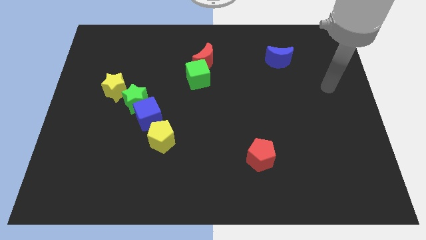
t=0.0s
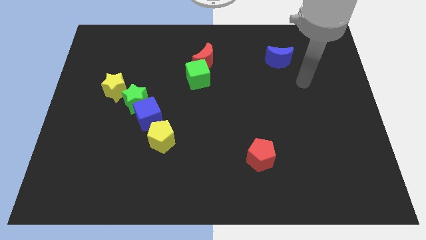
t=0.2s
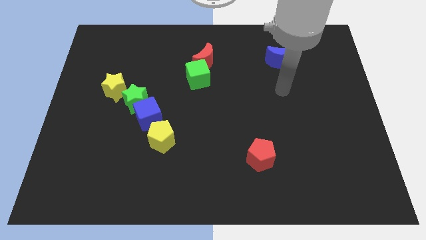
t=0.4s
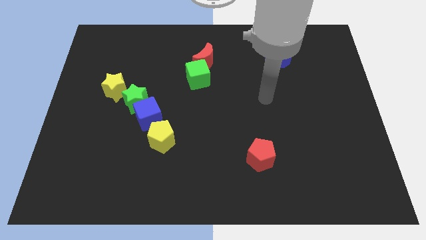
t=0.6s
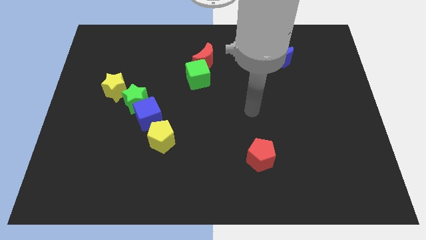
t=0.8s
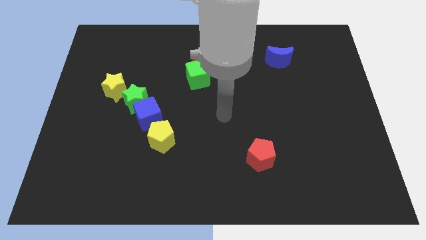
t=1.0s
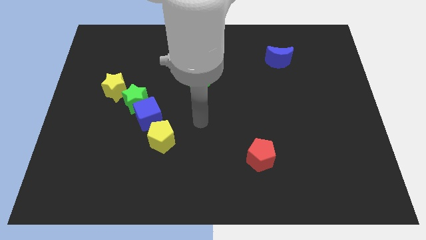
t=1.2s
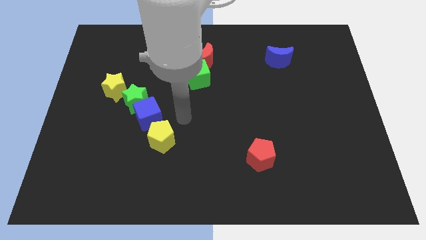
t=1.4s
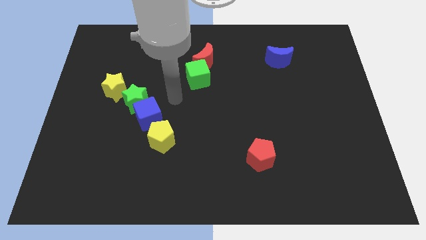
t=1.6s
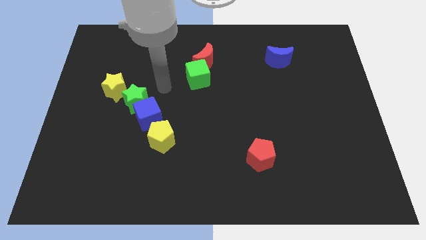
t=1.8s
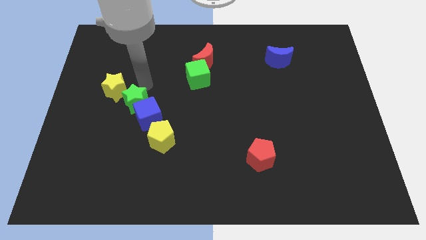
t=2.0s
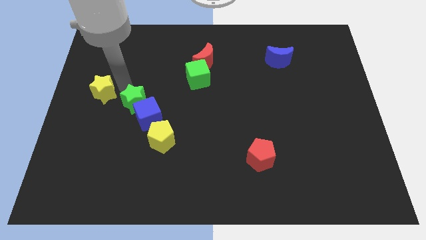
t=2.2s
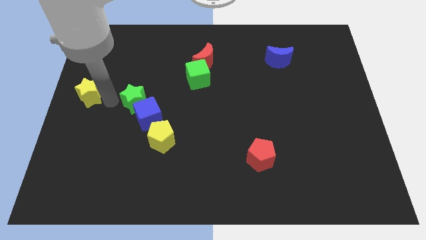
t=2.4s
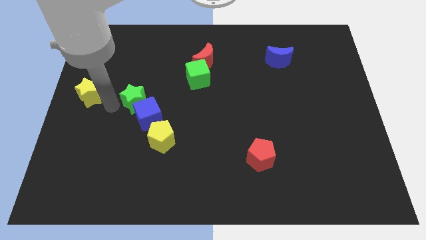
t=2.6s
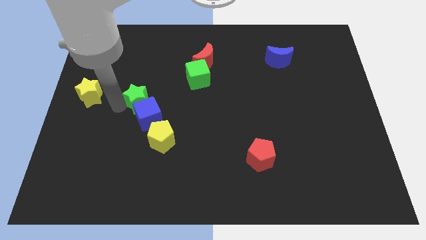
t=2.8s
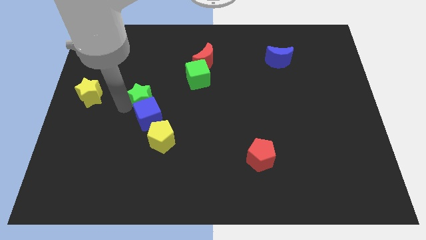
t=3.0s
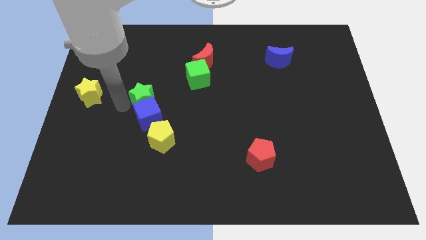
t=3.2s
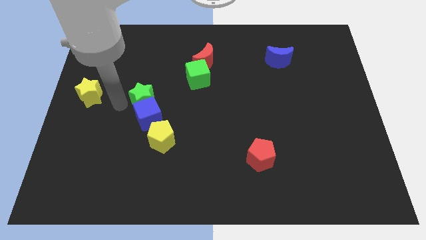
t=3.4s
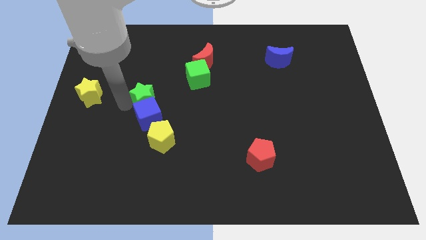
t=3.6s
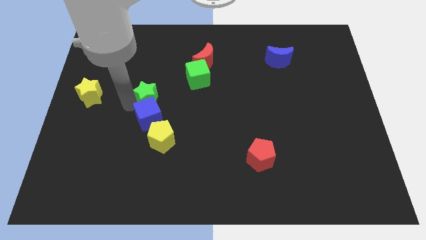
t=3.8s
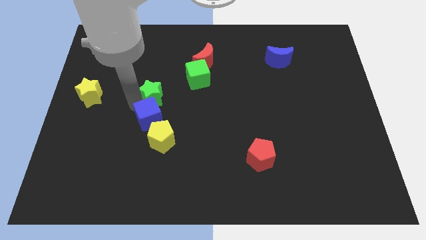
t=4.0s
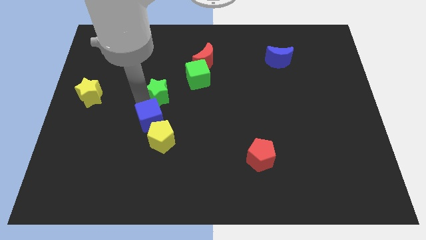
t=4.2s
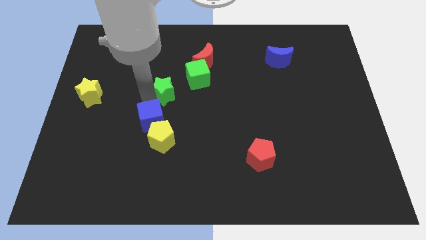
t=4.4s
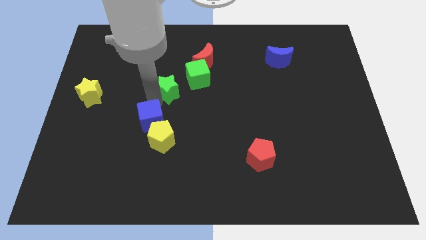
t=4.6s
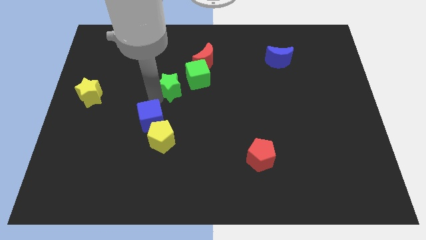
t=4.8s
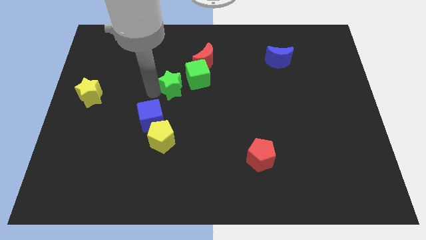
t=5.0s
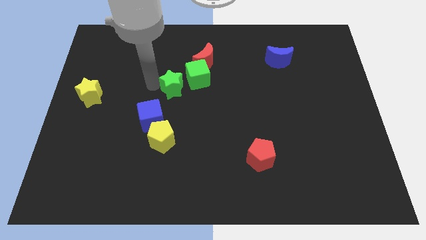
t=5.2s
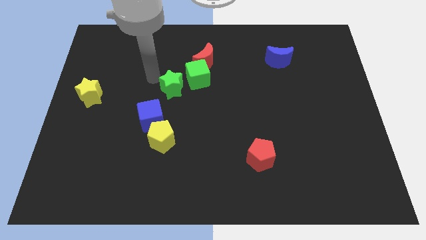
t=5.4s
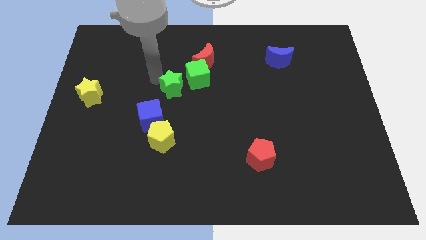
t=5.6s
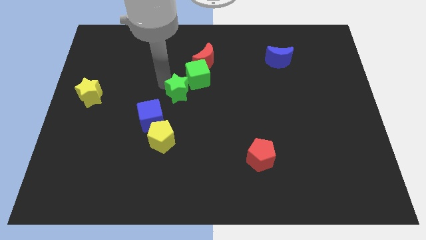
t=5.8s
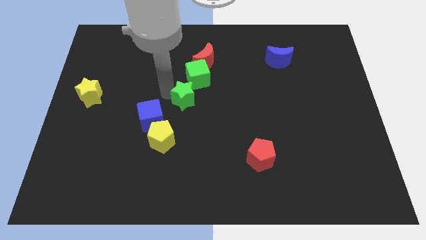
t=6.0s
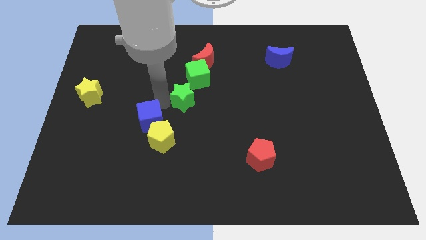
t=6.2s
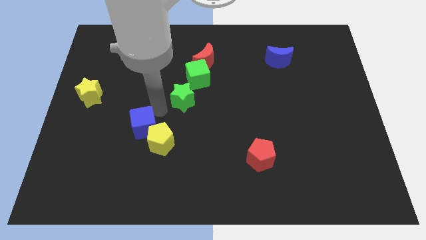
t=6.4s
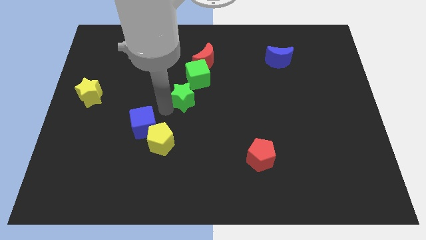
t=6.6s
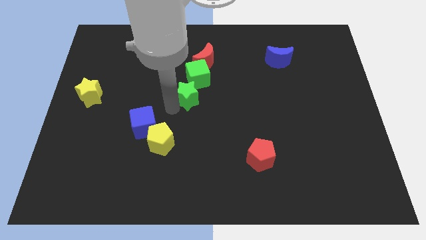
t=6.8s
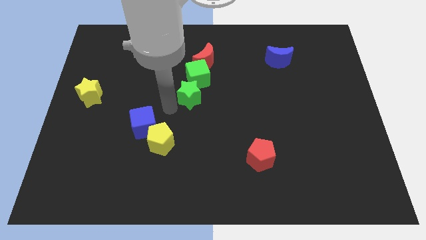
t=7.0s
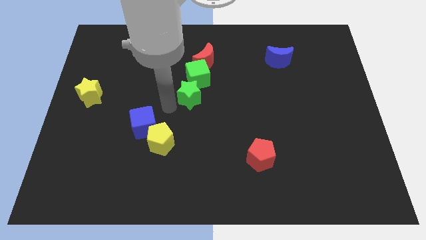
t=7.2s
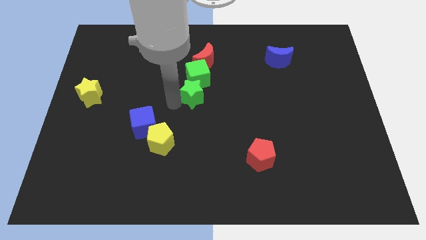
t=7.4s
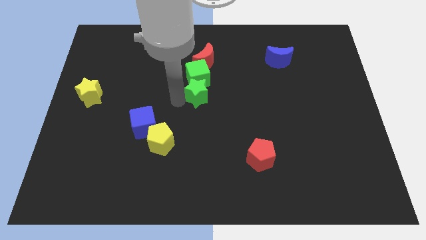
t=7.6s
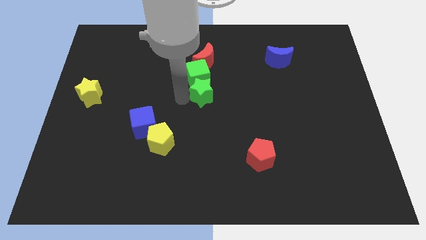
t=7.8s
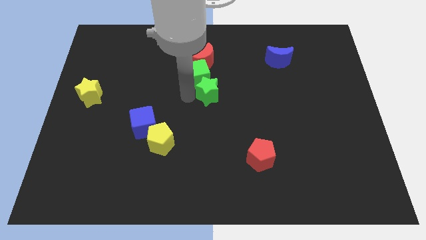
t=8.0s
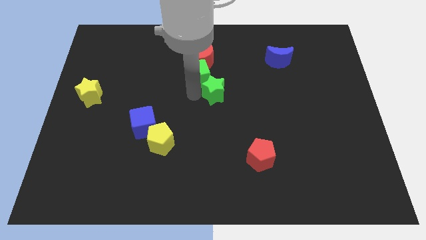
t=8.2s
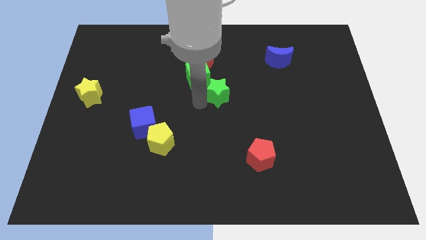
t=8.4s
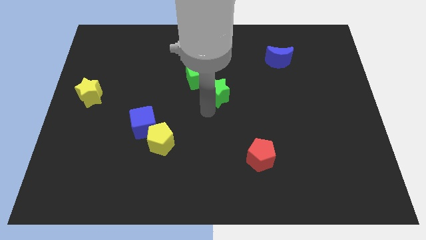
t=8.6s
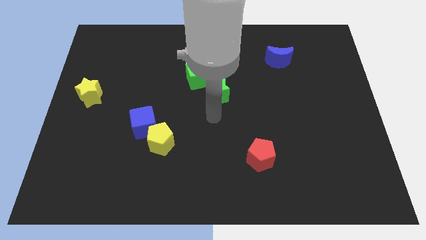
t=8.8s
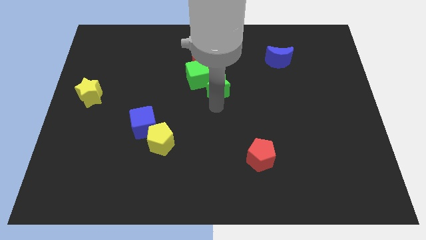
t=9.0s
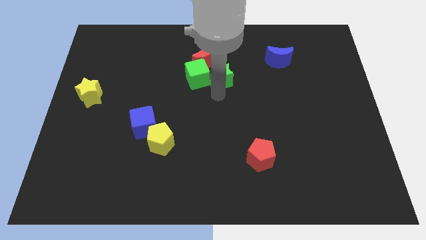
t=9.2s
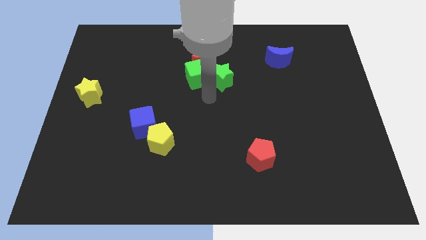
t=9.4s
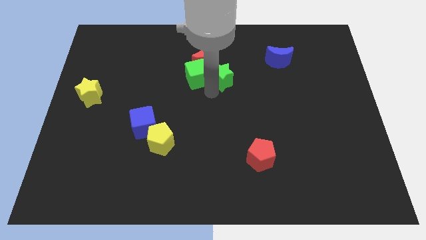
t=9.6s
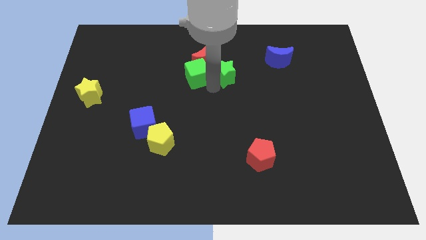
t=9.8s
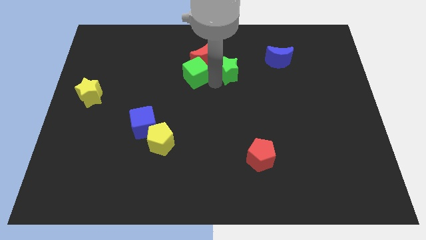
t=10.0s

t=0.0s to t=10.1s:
slide the green star to the left of the blue moon

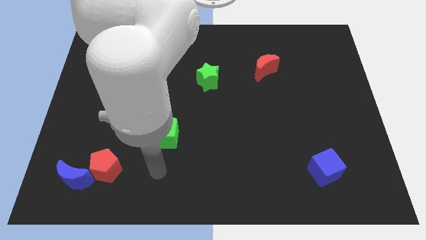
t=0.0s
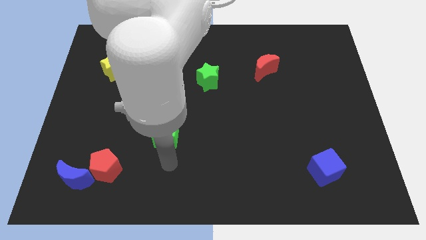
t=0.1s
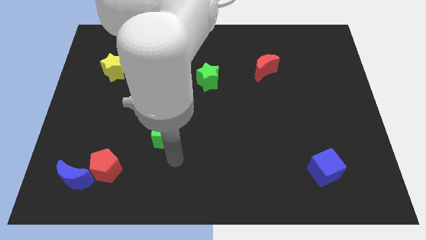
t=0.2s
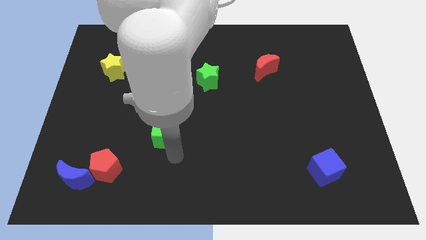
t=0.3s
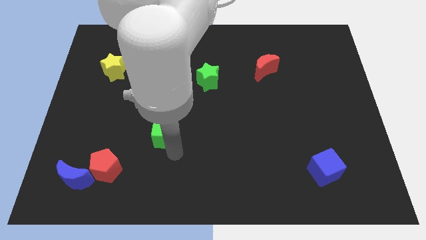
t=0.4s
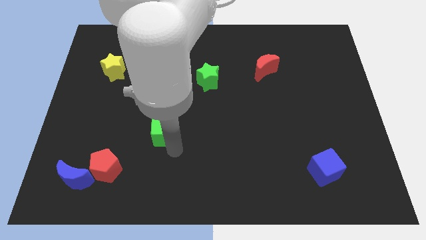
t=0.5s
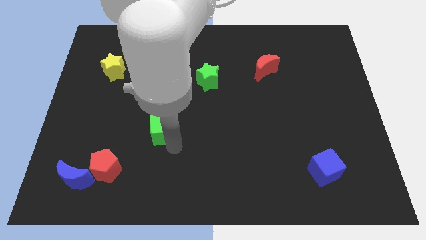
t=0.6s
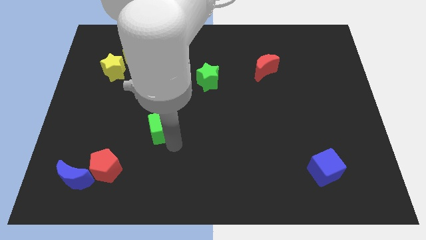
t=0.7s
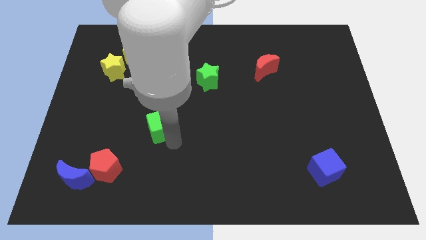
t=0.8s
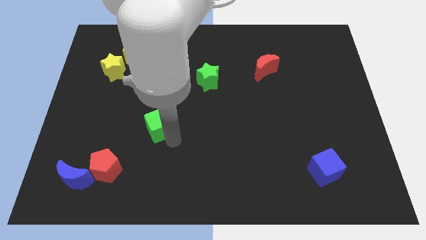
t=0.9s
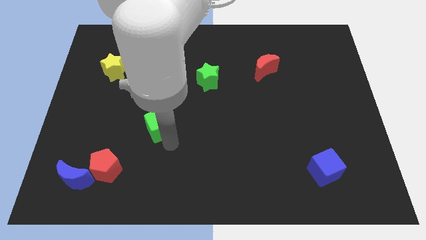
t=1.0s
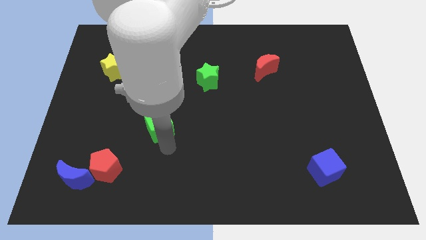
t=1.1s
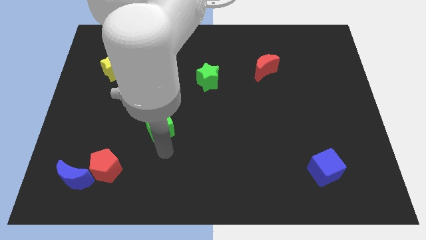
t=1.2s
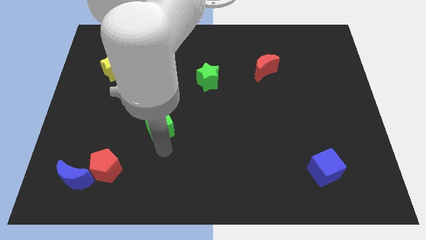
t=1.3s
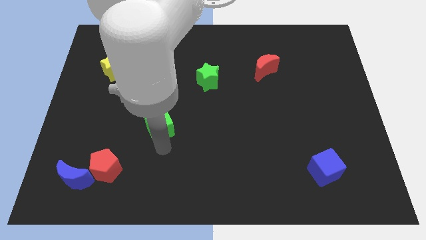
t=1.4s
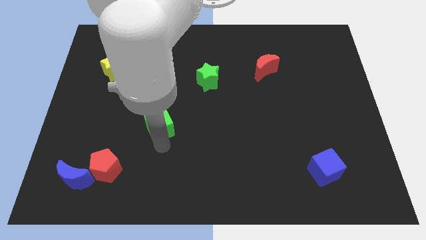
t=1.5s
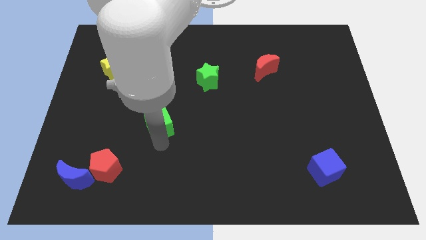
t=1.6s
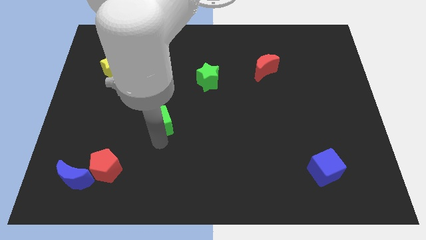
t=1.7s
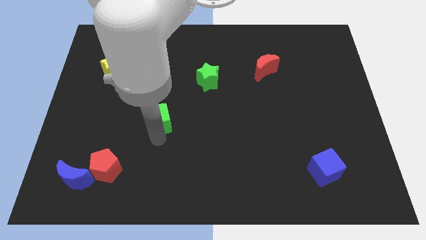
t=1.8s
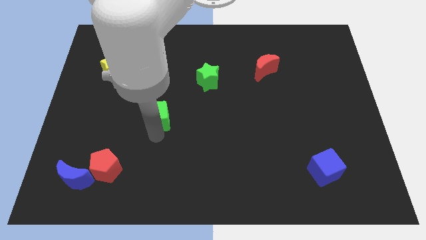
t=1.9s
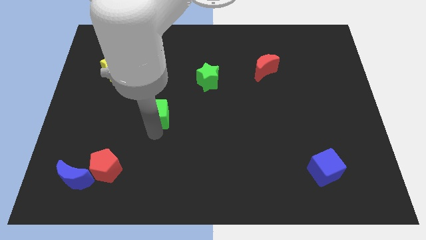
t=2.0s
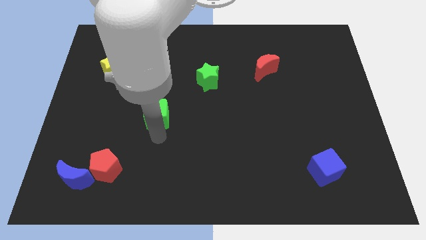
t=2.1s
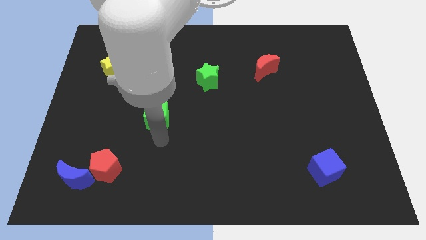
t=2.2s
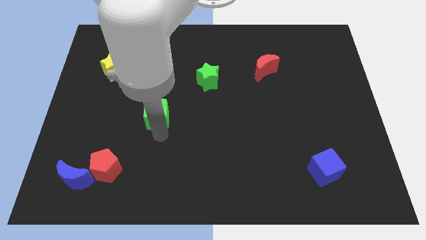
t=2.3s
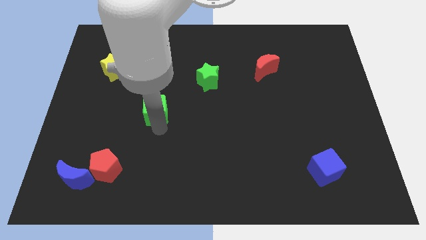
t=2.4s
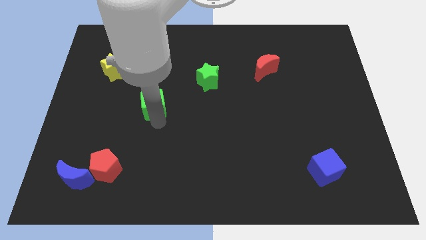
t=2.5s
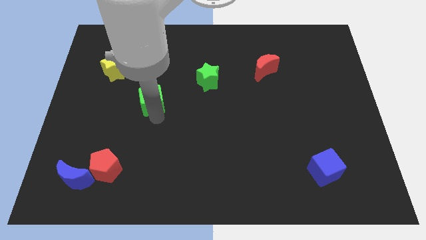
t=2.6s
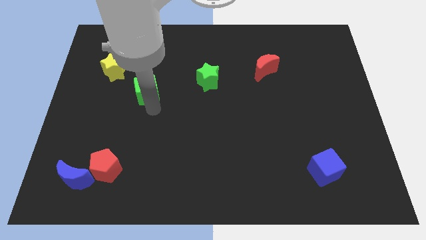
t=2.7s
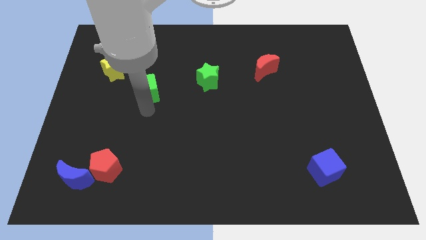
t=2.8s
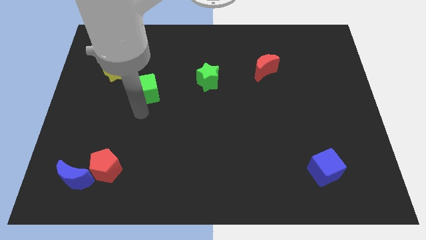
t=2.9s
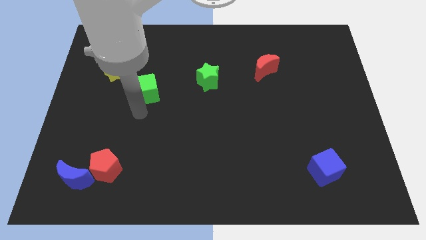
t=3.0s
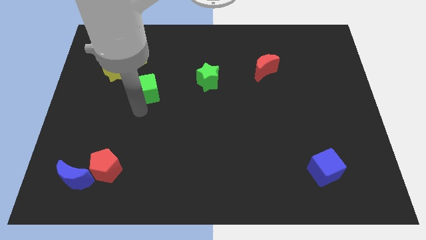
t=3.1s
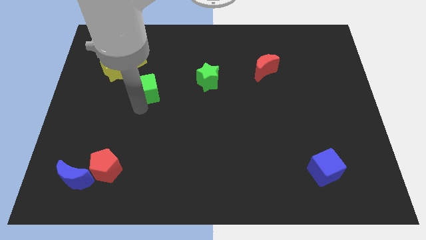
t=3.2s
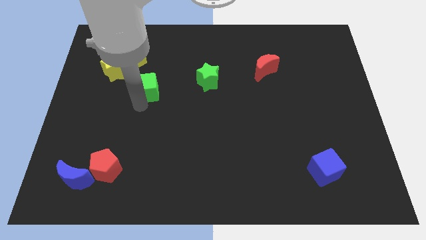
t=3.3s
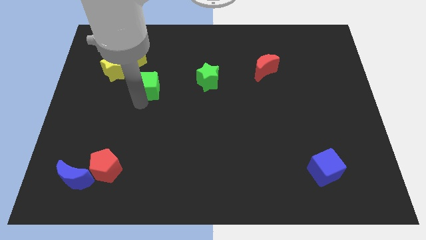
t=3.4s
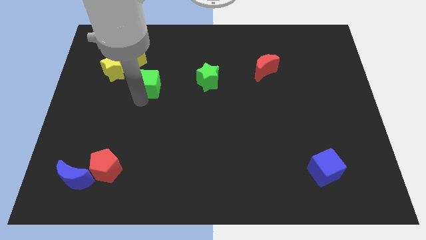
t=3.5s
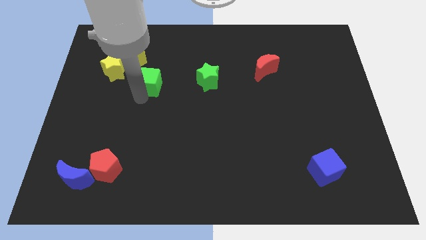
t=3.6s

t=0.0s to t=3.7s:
slide the green cube to the right of the yellow star
